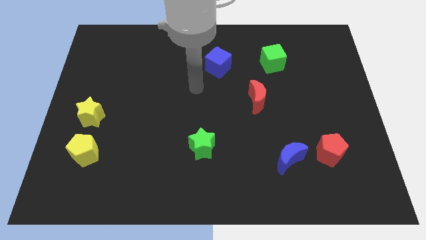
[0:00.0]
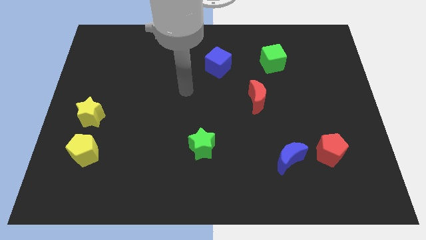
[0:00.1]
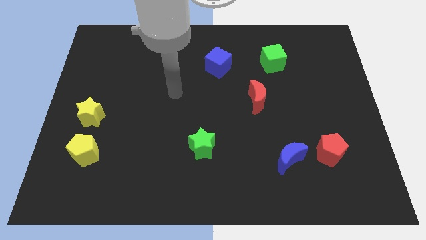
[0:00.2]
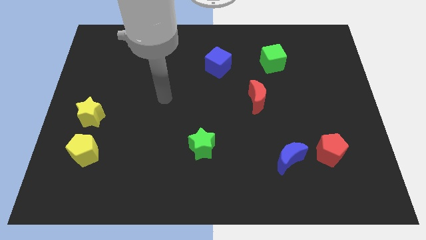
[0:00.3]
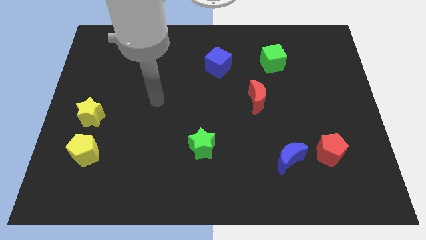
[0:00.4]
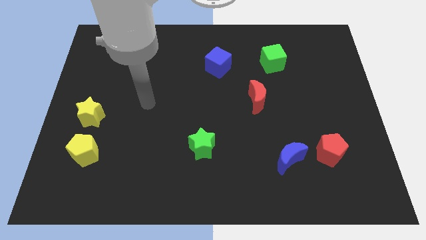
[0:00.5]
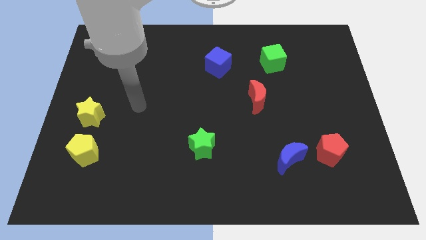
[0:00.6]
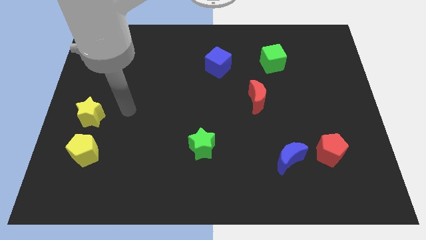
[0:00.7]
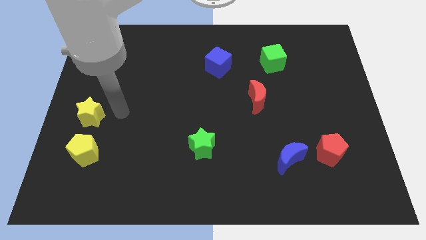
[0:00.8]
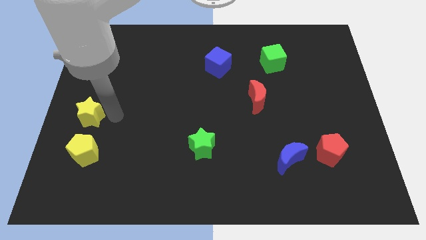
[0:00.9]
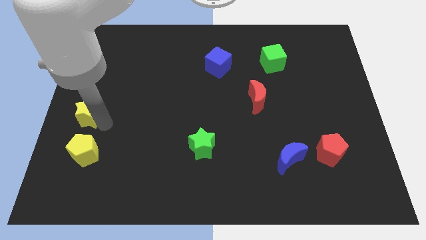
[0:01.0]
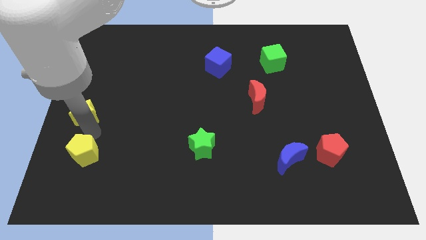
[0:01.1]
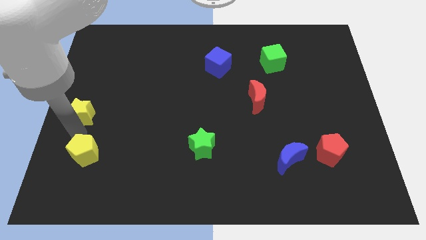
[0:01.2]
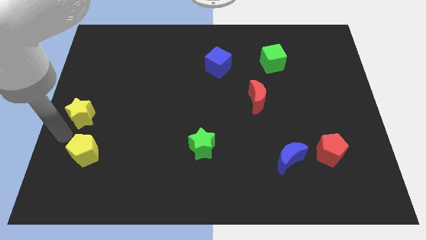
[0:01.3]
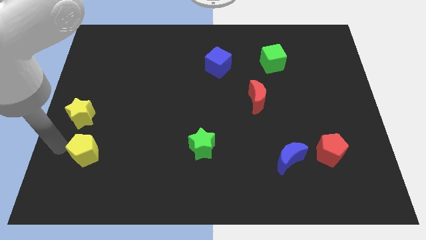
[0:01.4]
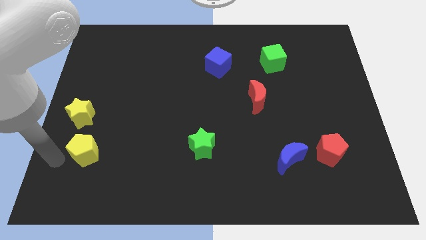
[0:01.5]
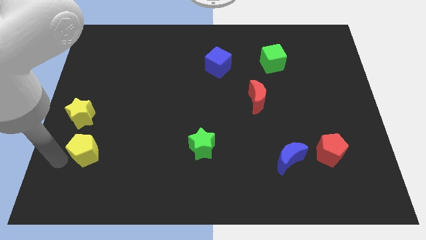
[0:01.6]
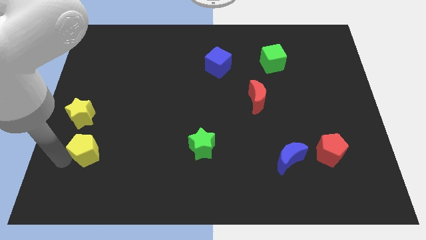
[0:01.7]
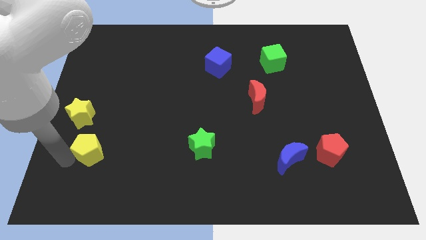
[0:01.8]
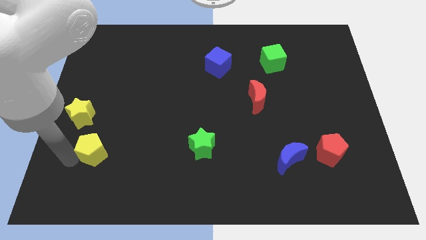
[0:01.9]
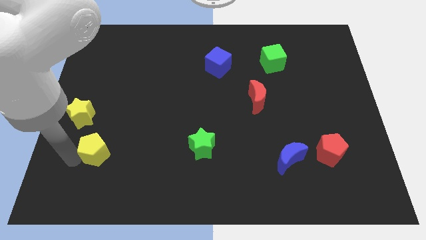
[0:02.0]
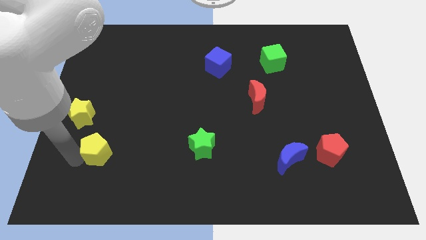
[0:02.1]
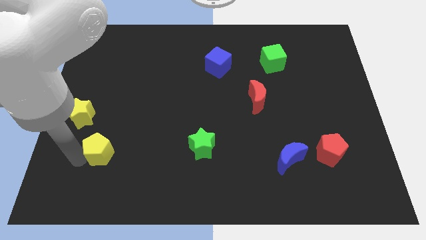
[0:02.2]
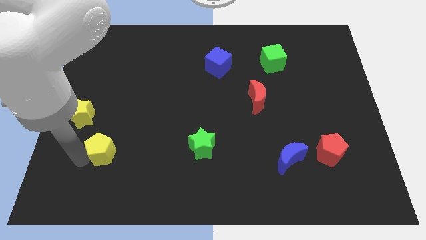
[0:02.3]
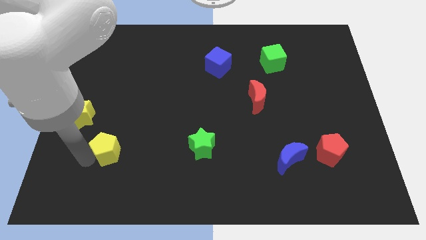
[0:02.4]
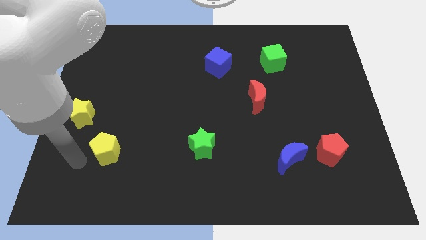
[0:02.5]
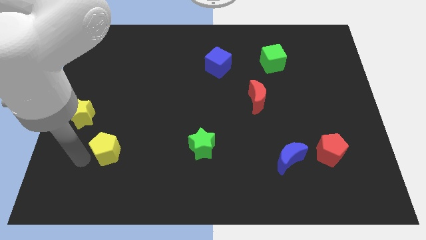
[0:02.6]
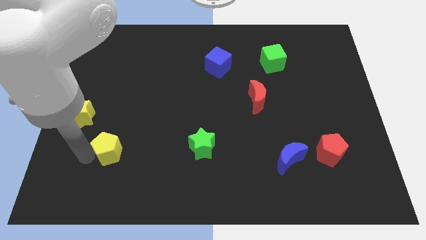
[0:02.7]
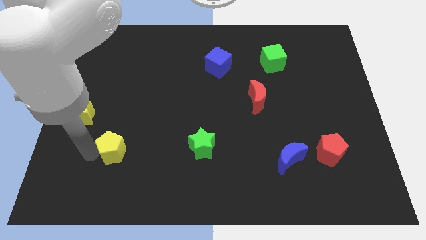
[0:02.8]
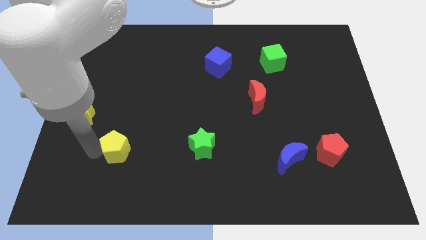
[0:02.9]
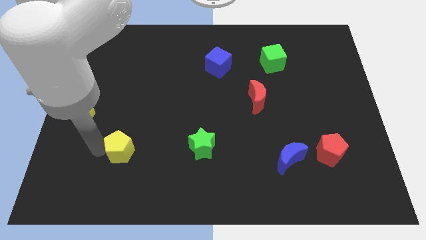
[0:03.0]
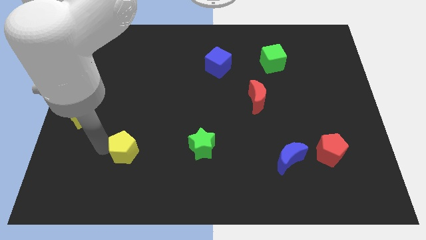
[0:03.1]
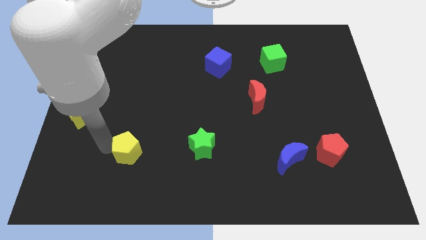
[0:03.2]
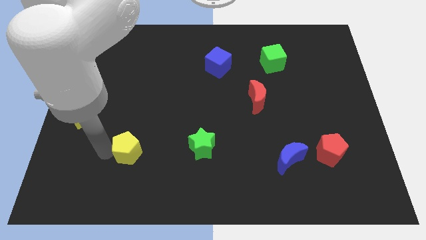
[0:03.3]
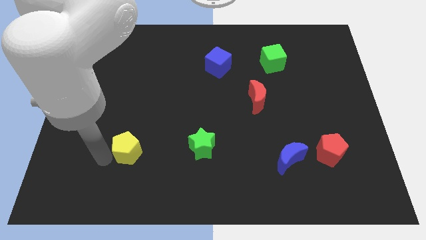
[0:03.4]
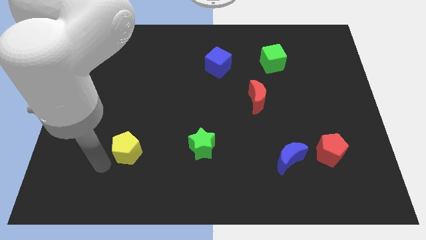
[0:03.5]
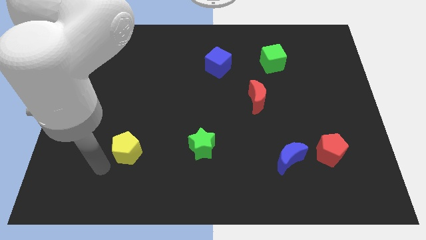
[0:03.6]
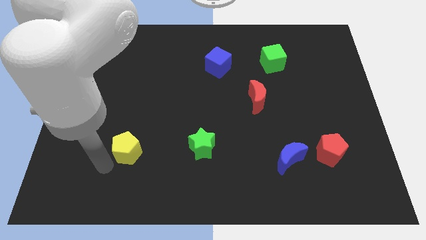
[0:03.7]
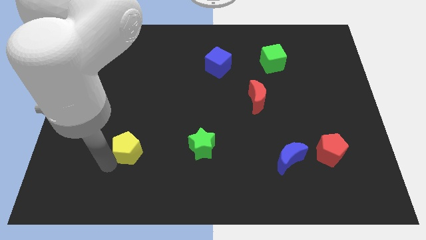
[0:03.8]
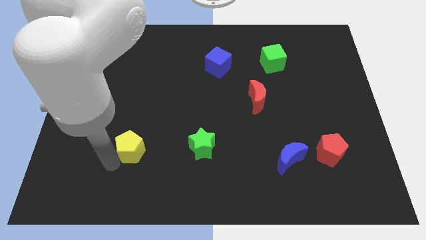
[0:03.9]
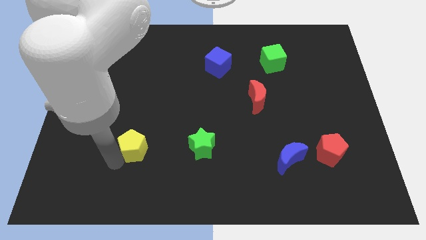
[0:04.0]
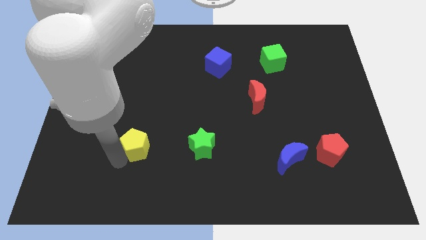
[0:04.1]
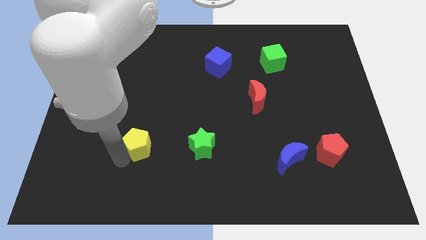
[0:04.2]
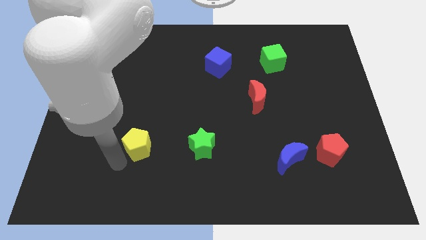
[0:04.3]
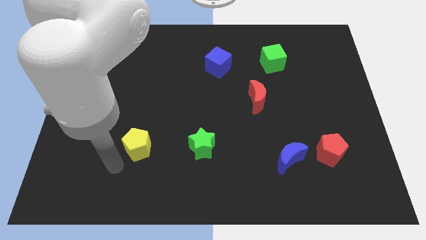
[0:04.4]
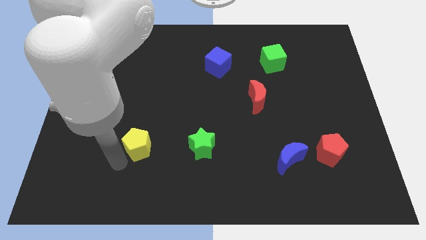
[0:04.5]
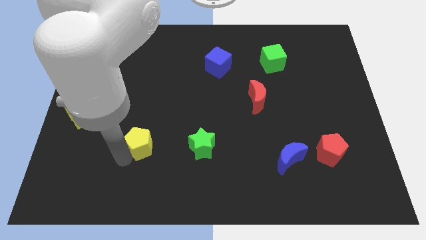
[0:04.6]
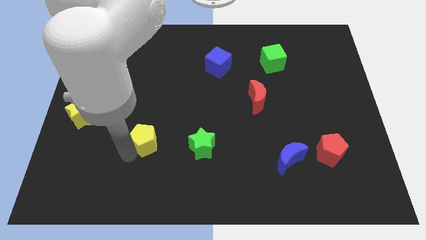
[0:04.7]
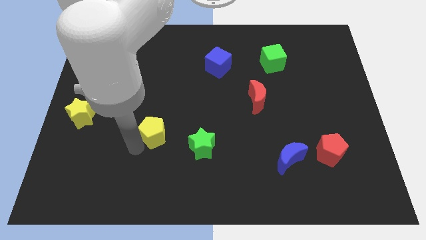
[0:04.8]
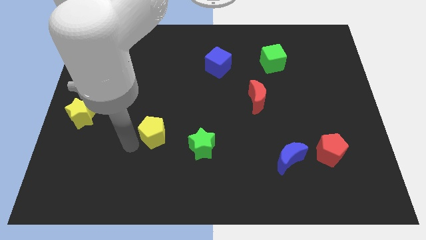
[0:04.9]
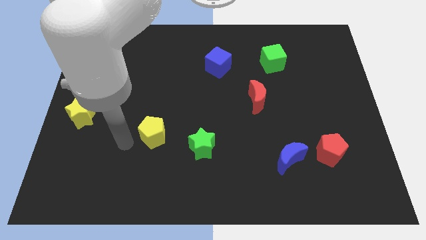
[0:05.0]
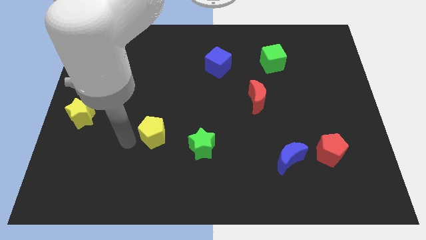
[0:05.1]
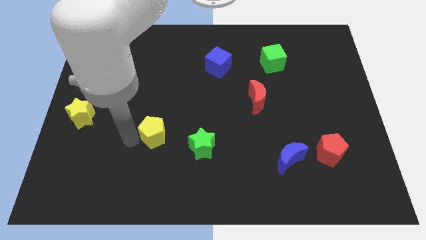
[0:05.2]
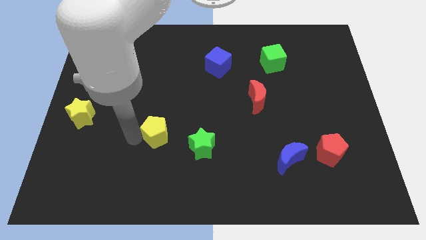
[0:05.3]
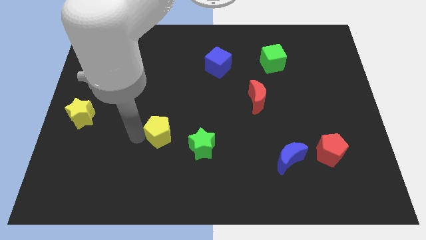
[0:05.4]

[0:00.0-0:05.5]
put the yellow pentagon to the top left of the green star

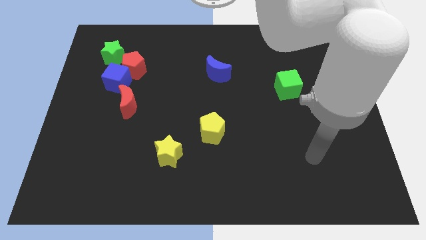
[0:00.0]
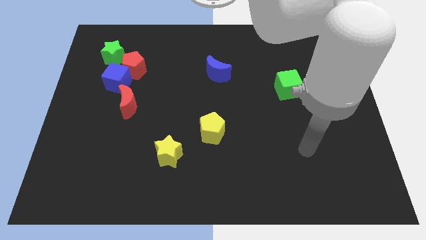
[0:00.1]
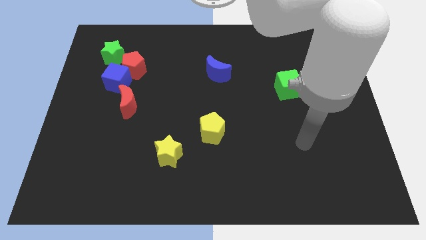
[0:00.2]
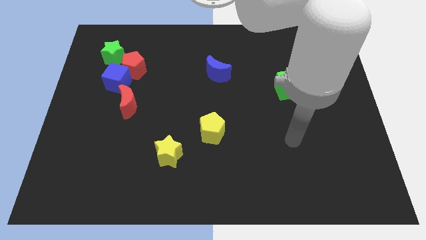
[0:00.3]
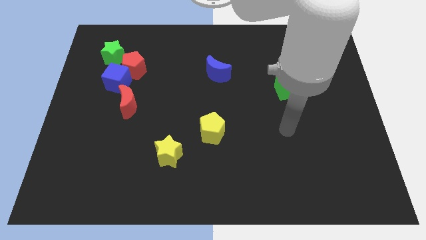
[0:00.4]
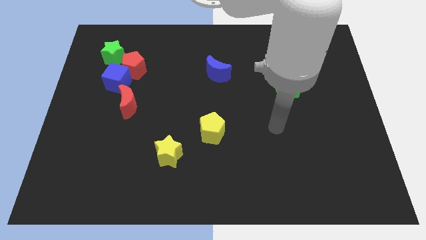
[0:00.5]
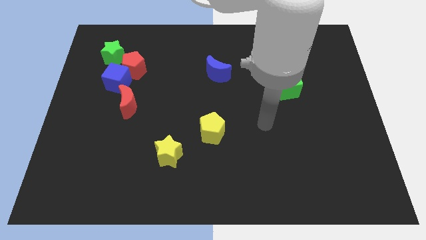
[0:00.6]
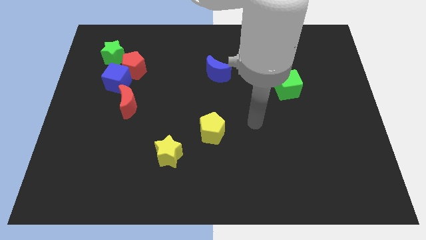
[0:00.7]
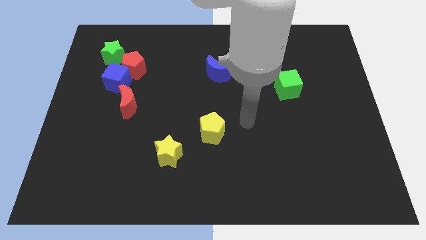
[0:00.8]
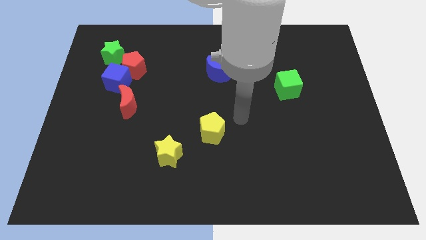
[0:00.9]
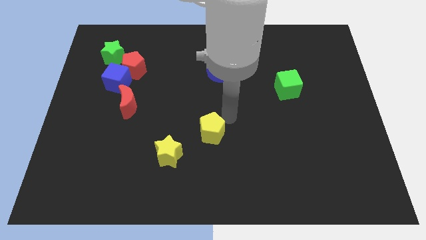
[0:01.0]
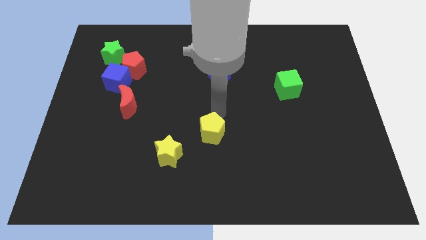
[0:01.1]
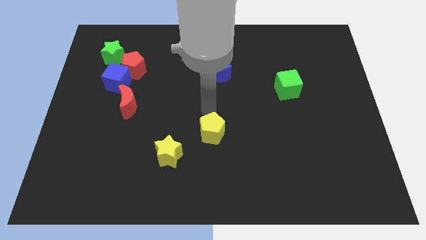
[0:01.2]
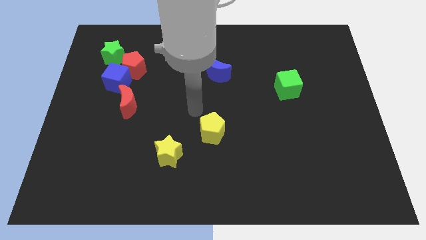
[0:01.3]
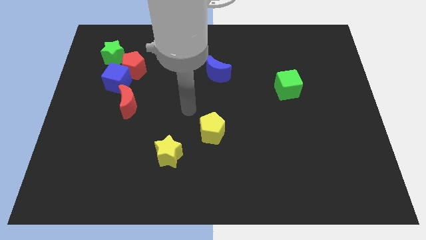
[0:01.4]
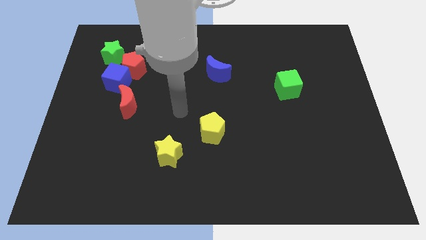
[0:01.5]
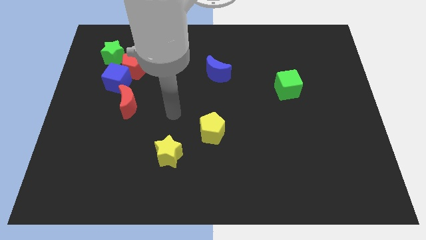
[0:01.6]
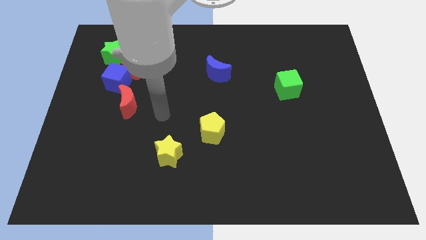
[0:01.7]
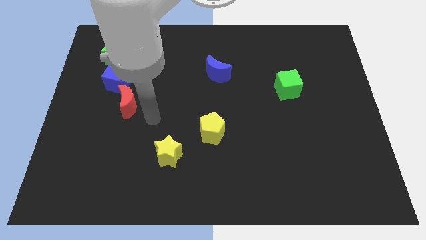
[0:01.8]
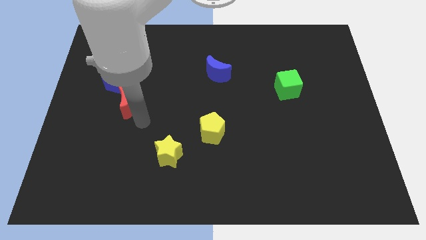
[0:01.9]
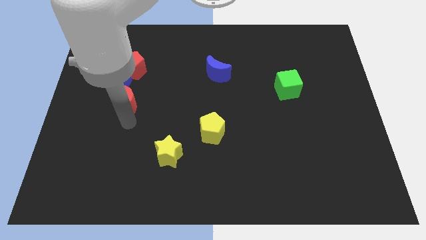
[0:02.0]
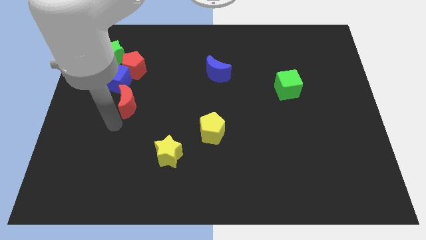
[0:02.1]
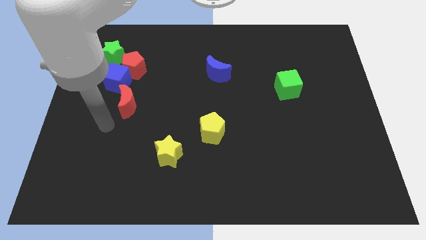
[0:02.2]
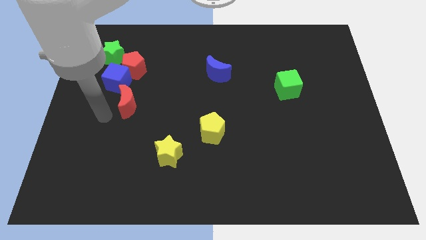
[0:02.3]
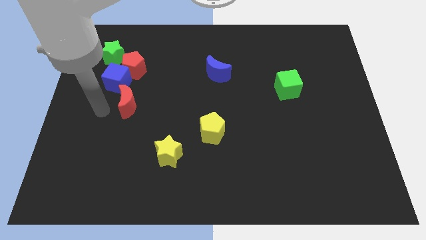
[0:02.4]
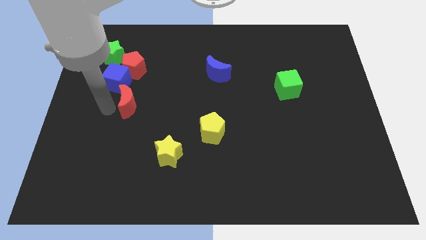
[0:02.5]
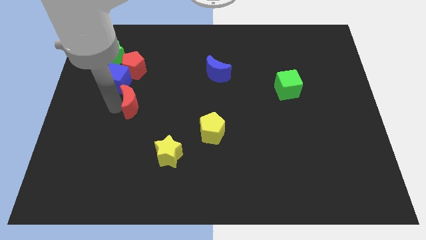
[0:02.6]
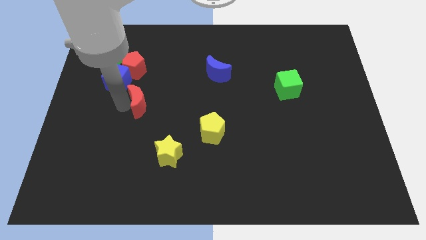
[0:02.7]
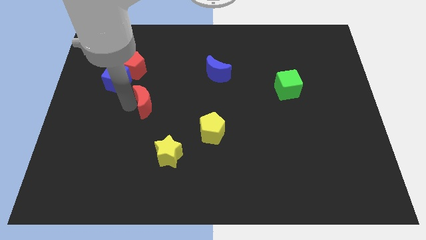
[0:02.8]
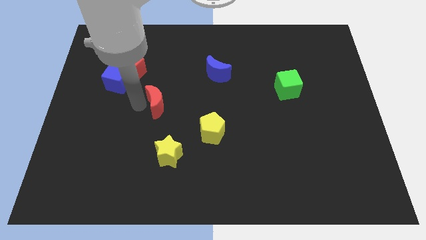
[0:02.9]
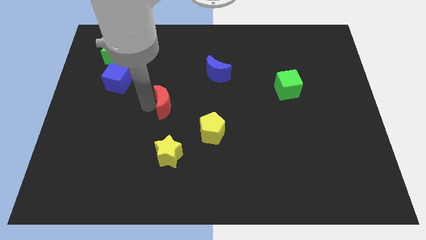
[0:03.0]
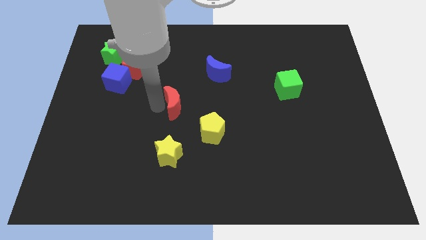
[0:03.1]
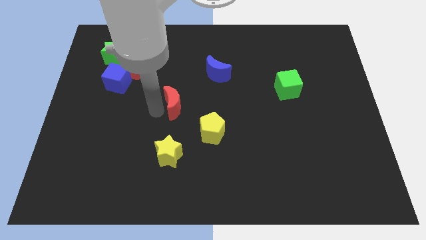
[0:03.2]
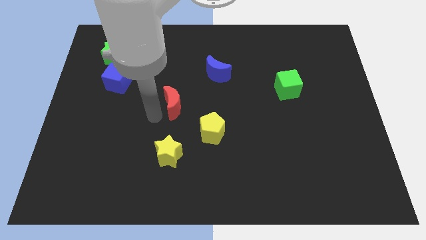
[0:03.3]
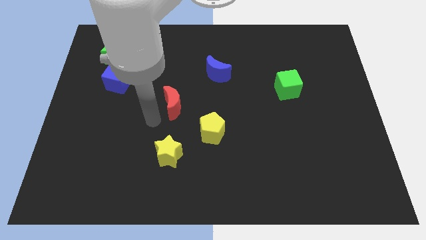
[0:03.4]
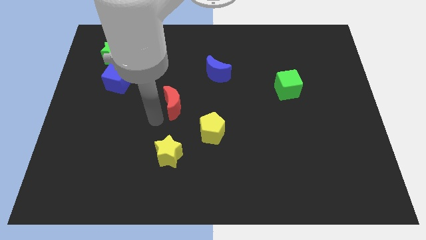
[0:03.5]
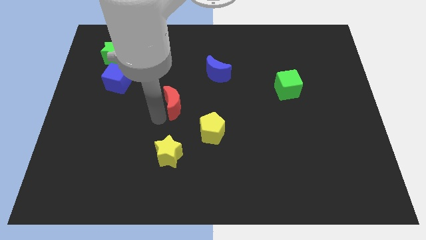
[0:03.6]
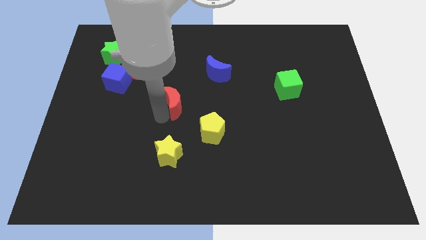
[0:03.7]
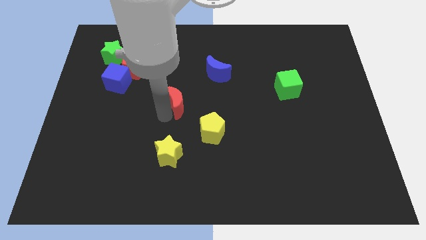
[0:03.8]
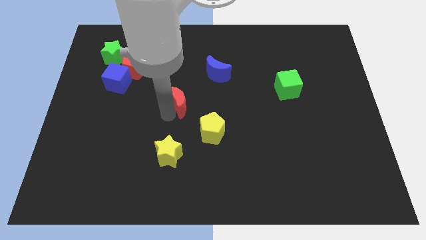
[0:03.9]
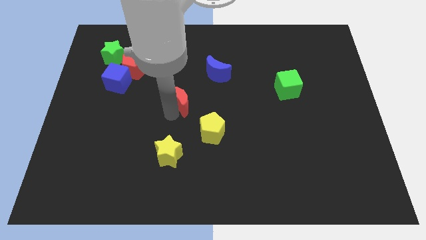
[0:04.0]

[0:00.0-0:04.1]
put the red moon diagonally down and to the left of the blue moon
